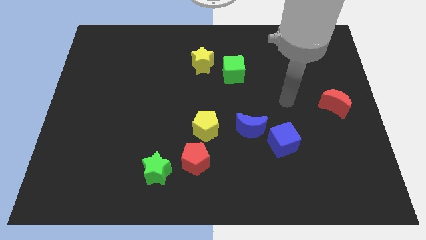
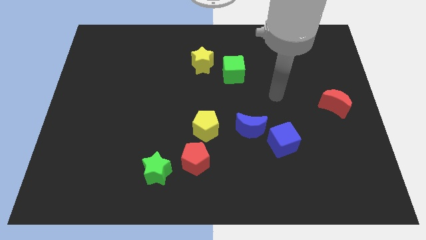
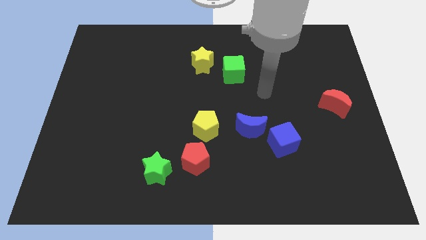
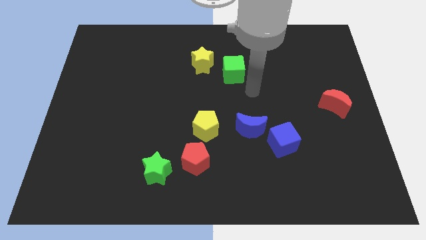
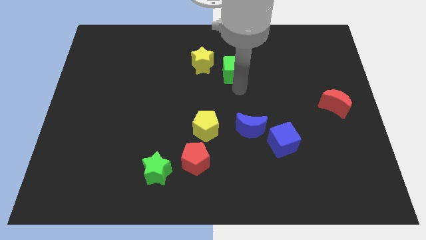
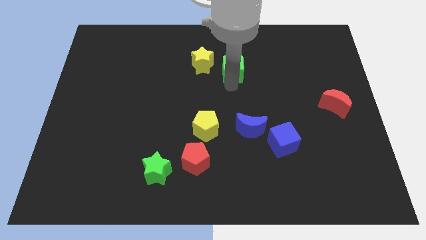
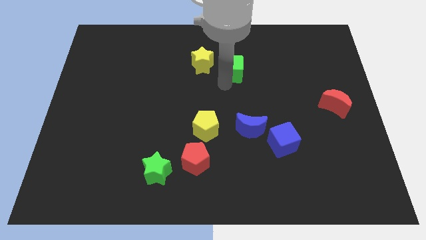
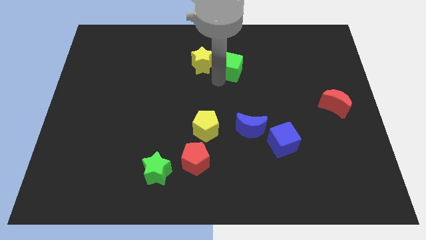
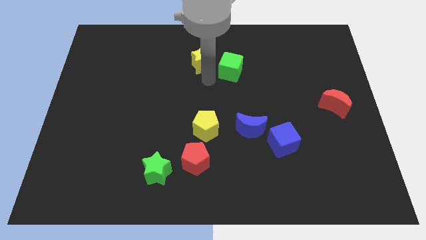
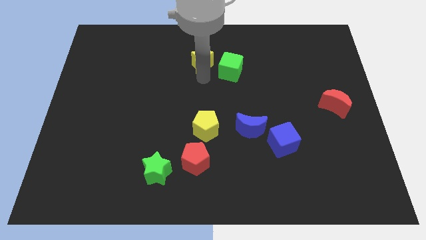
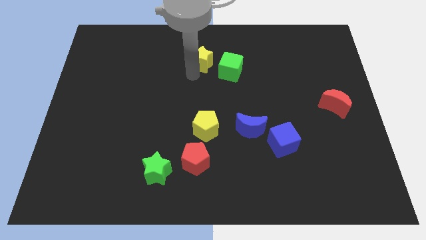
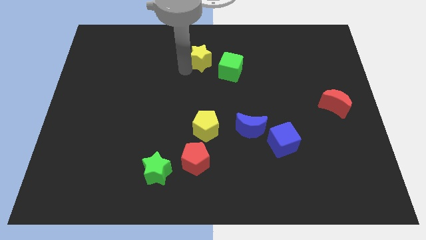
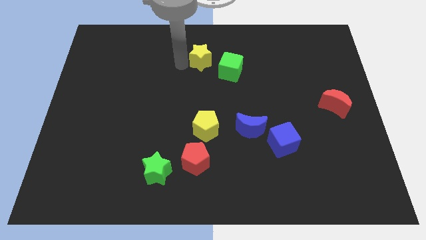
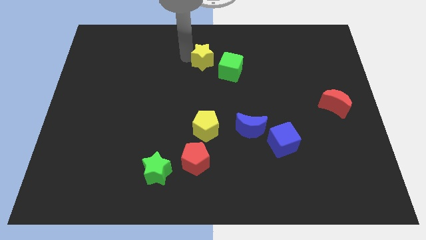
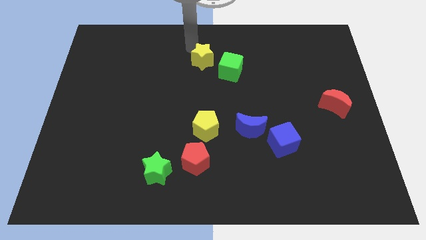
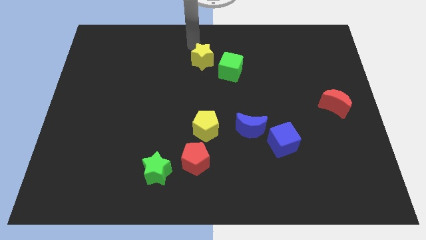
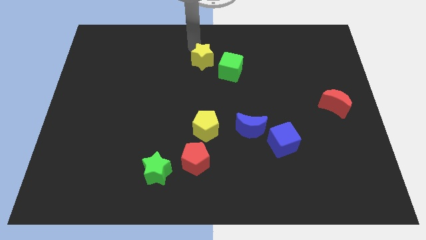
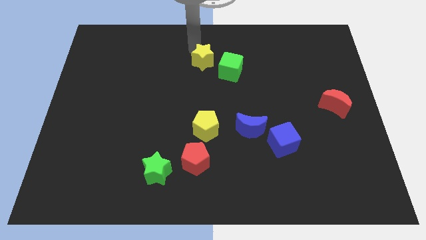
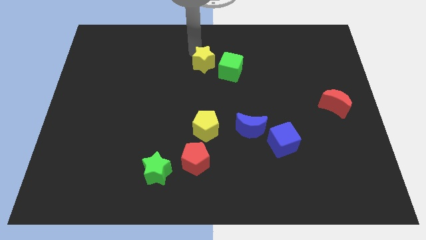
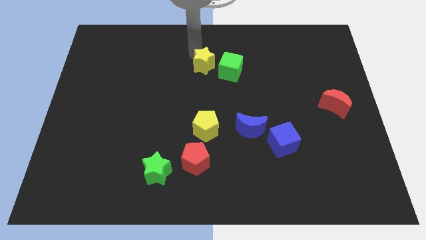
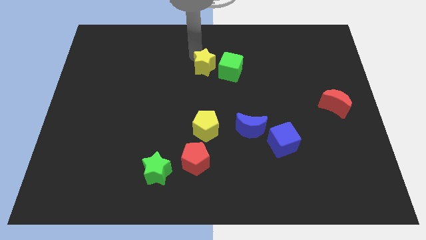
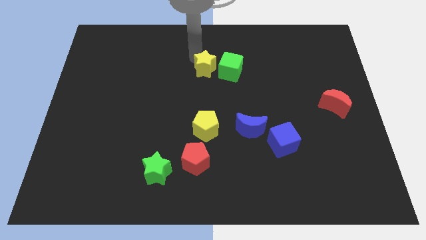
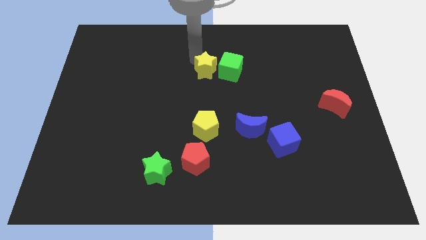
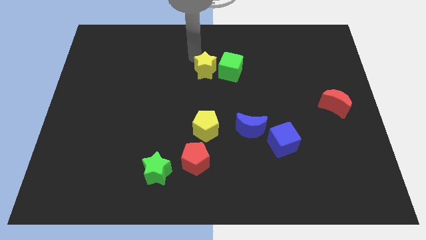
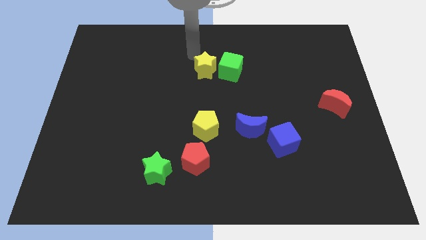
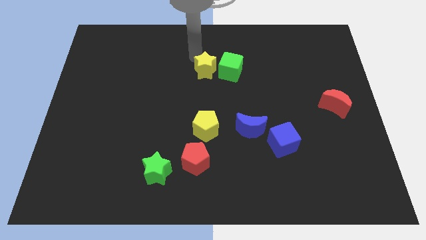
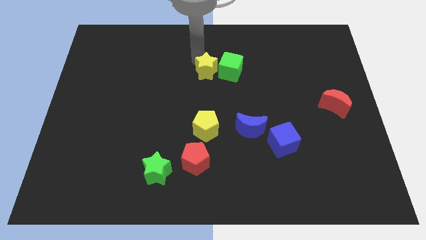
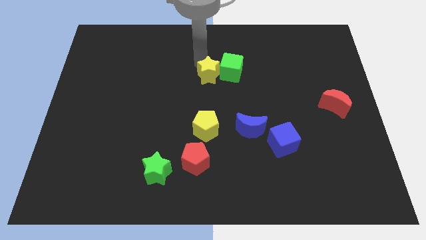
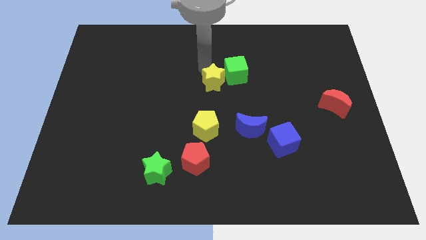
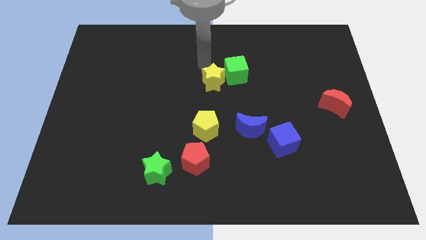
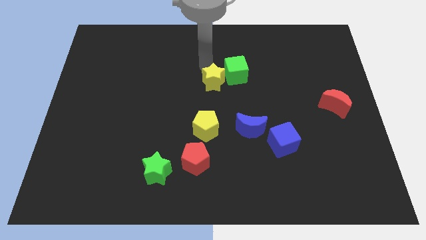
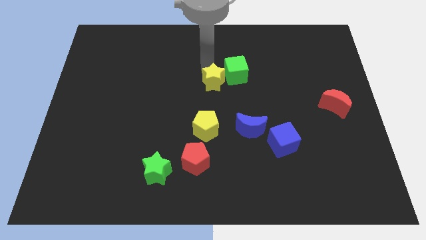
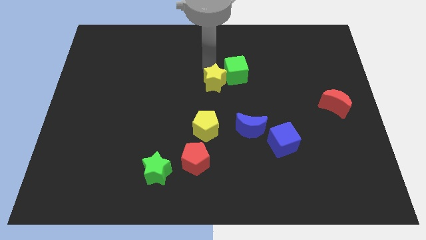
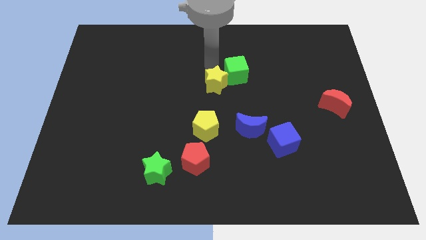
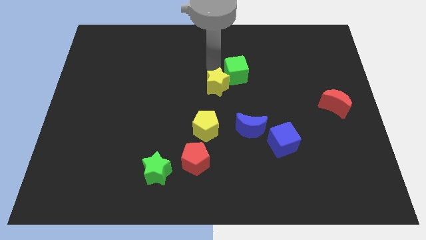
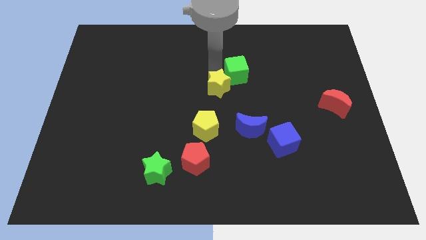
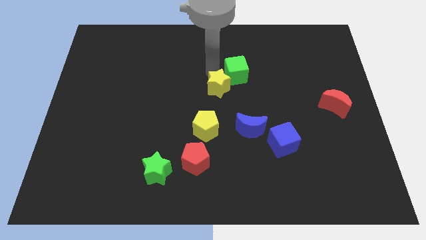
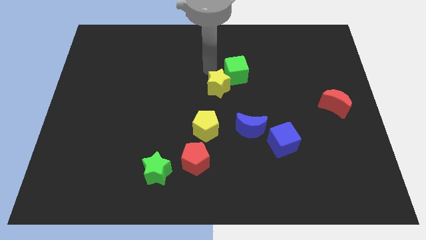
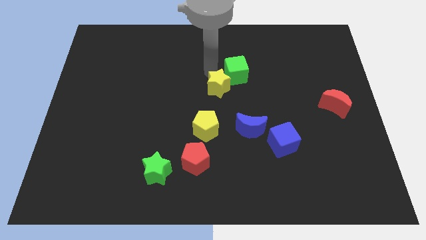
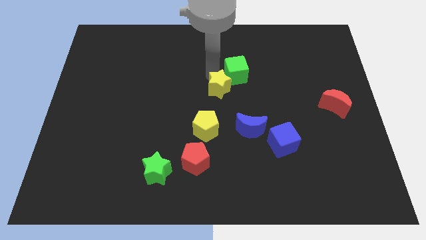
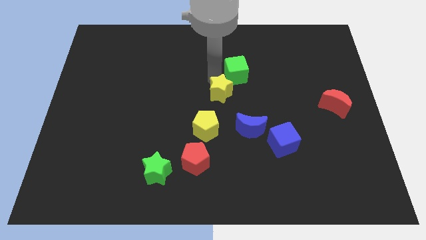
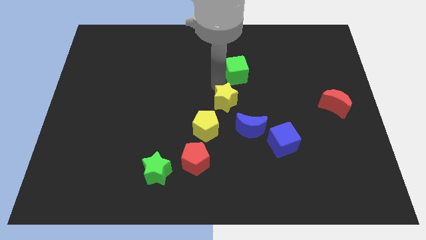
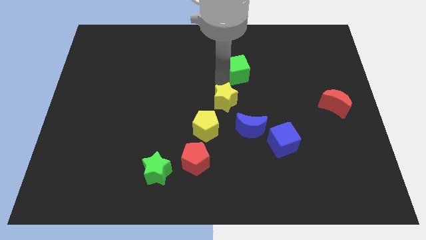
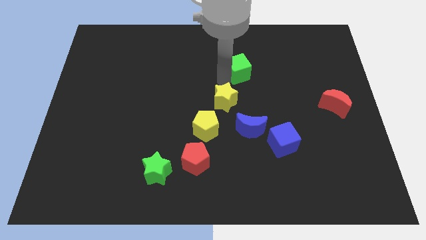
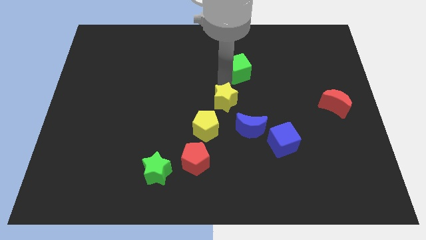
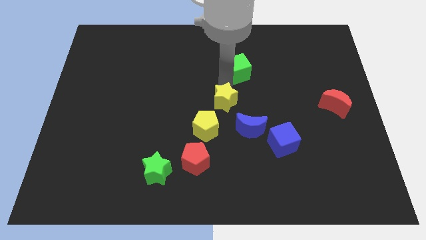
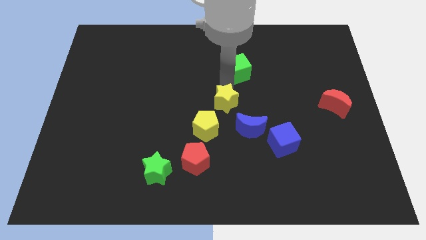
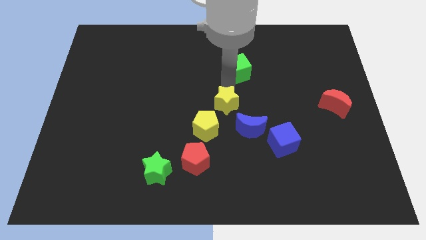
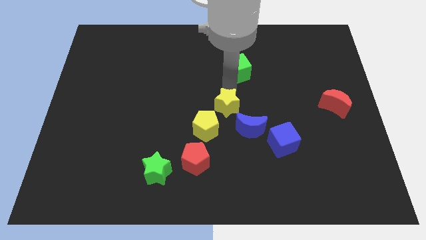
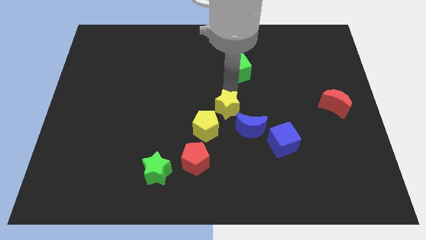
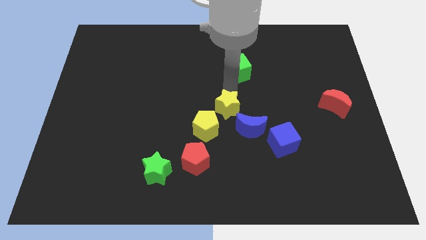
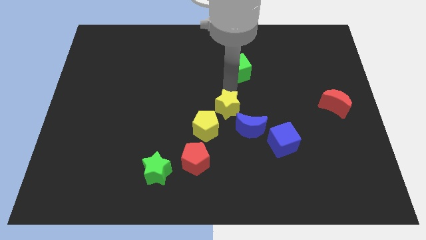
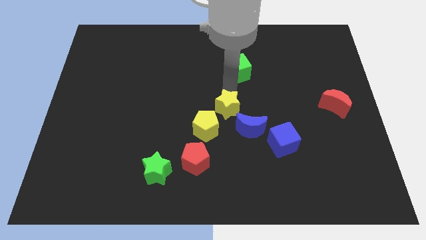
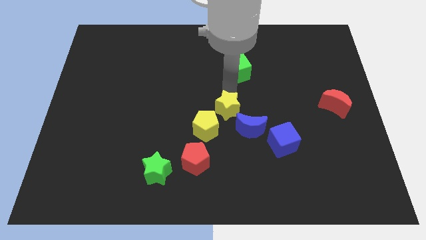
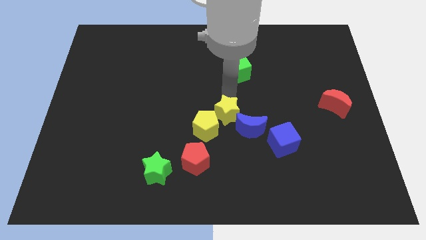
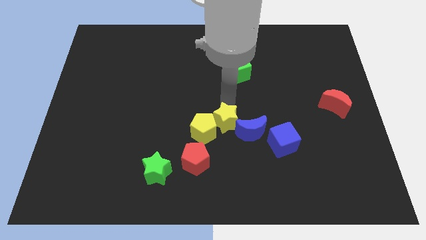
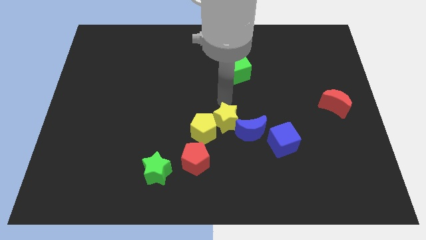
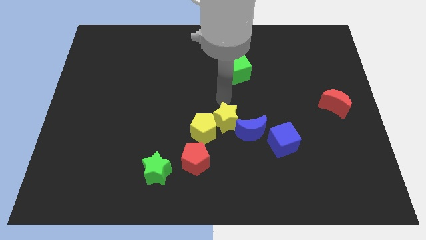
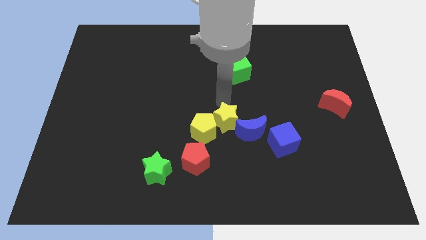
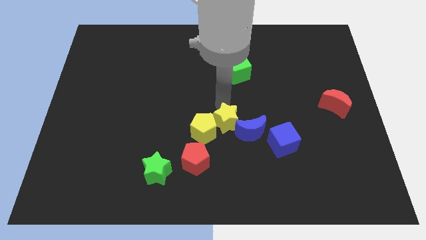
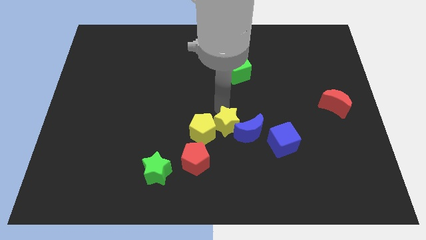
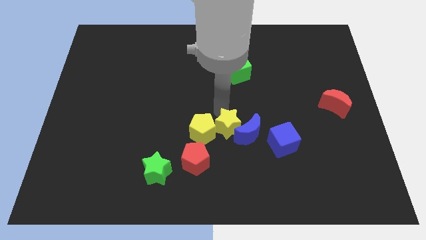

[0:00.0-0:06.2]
push the yellow star diagonally down and to the left of the blue moon

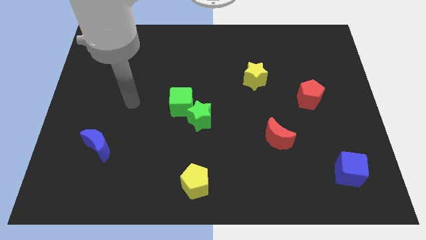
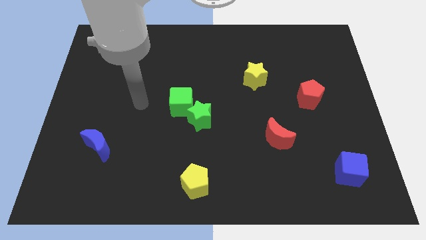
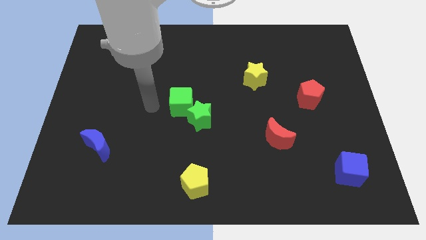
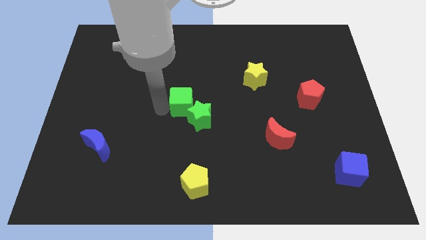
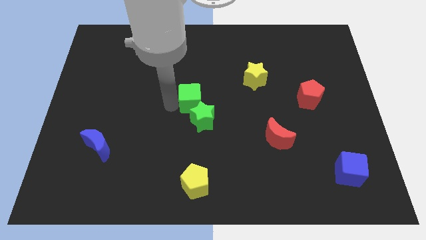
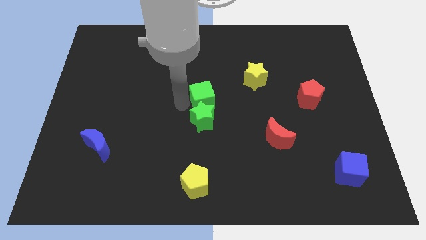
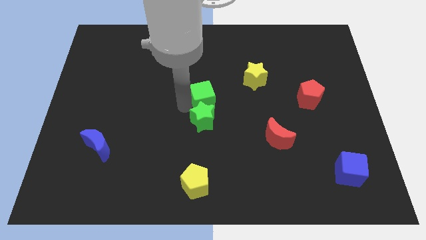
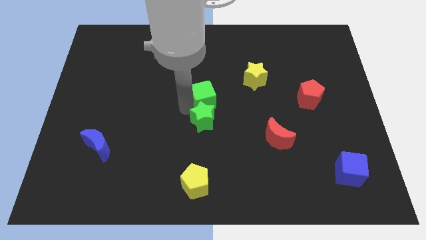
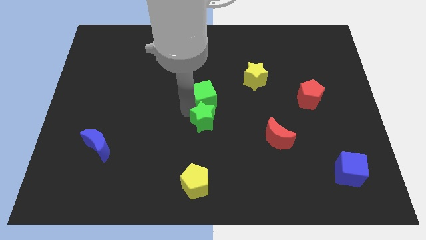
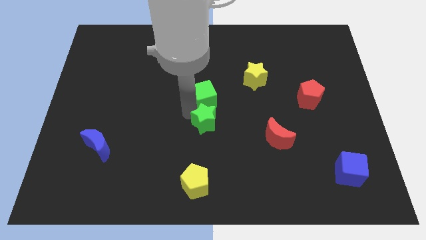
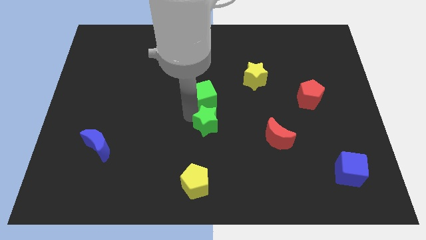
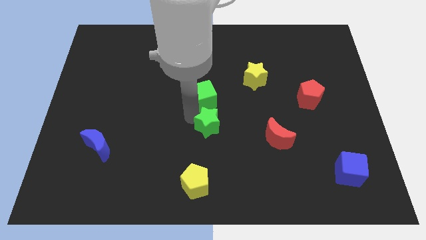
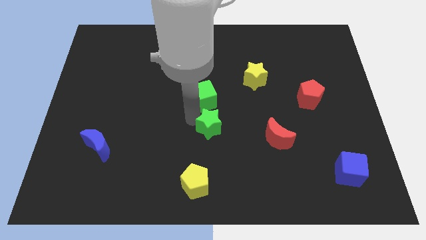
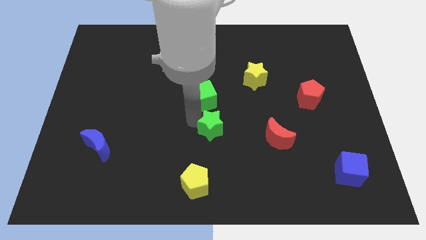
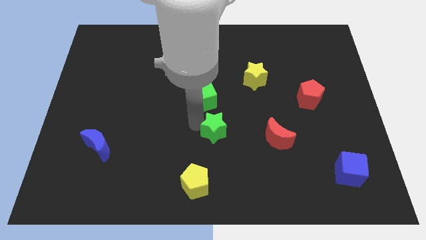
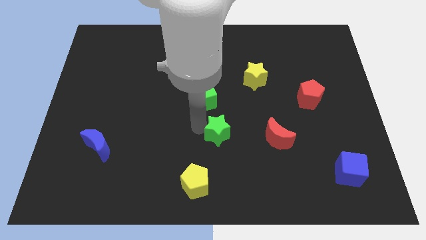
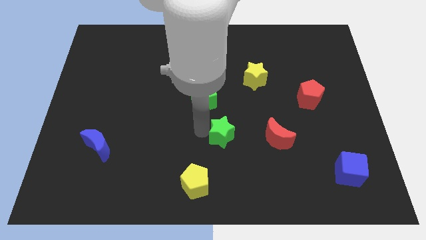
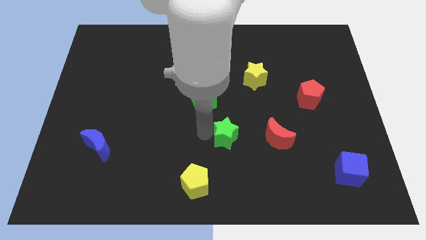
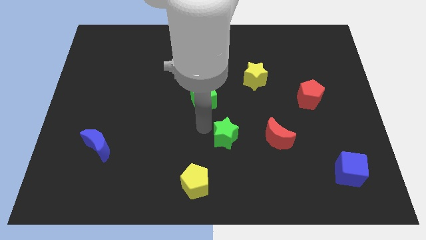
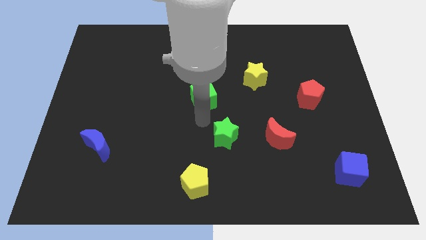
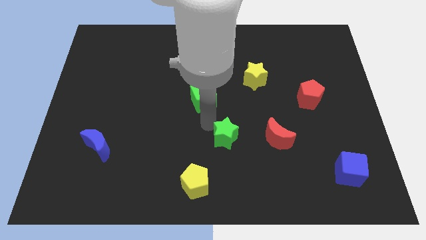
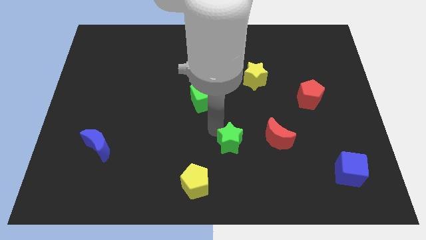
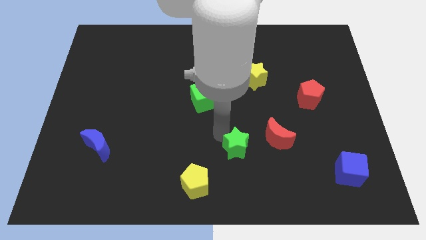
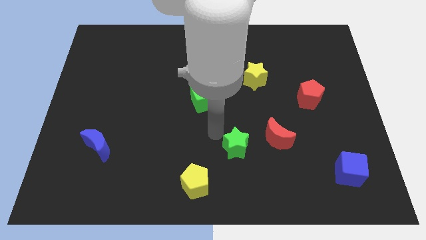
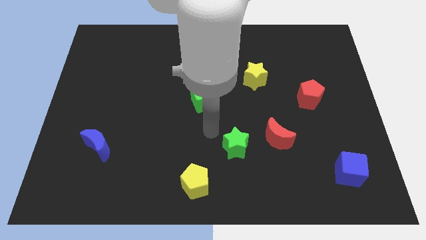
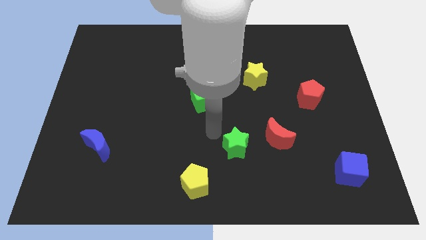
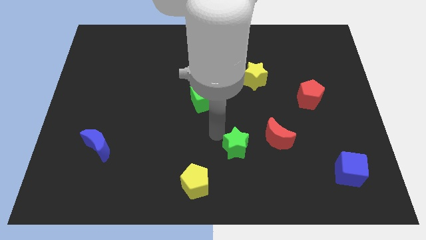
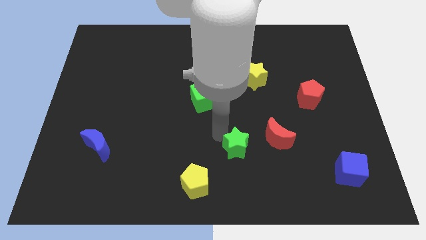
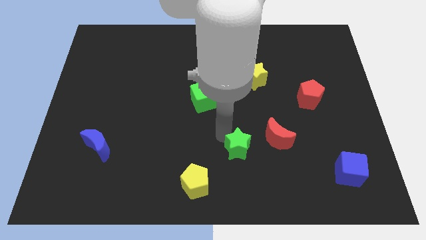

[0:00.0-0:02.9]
slide the green star diagonally down and to the left of the red moon
